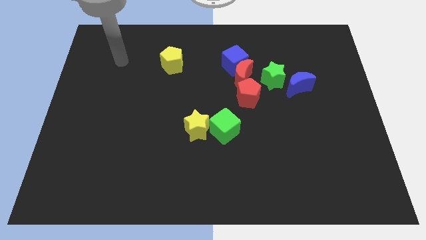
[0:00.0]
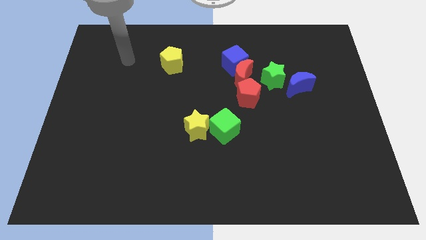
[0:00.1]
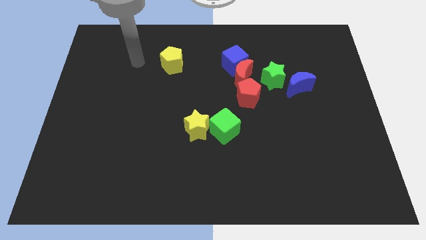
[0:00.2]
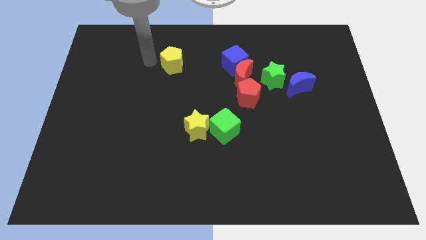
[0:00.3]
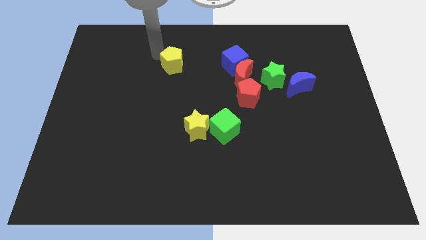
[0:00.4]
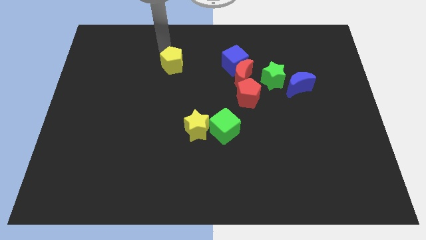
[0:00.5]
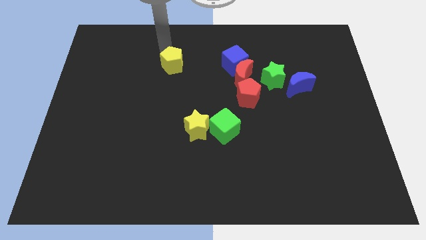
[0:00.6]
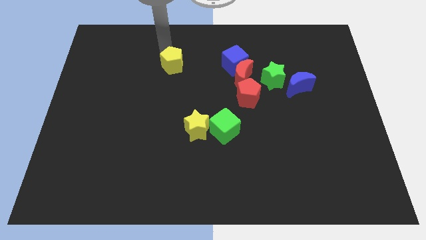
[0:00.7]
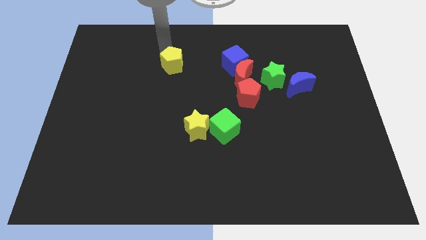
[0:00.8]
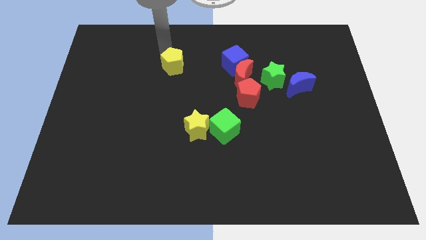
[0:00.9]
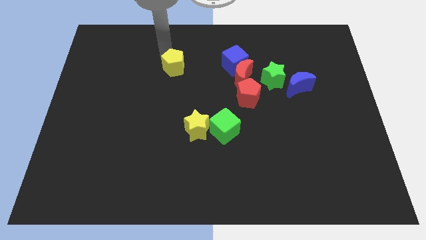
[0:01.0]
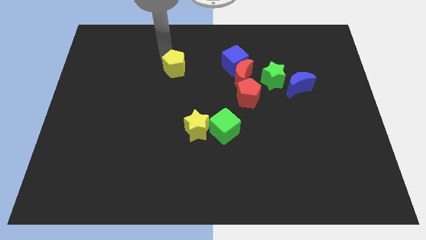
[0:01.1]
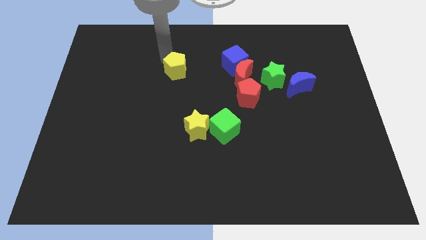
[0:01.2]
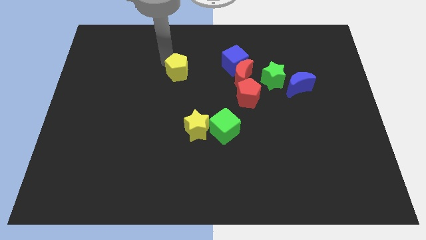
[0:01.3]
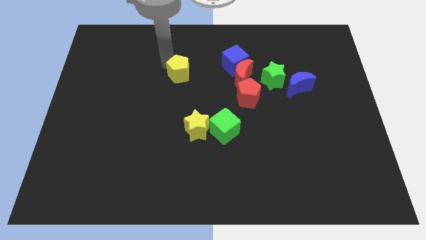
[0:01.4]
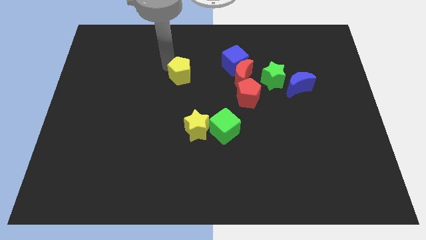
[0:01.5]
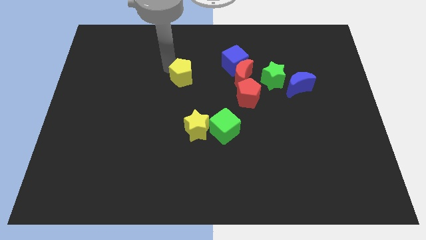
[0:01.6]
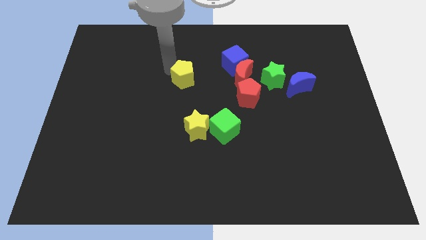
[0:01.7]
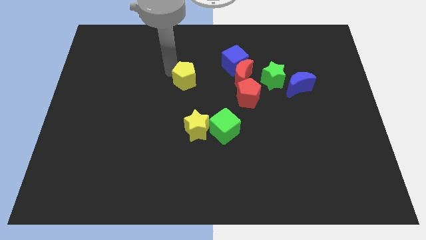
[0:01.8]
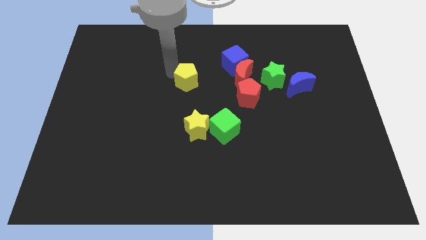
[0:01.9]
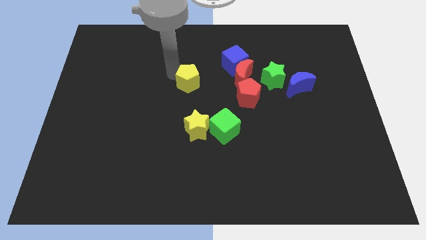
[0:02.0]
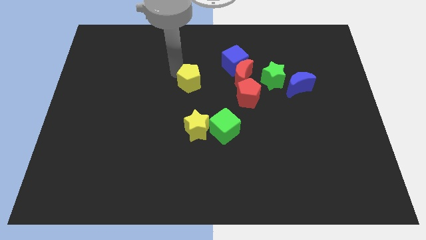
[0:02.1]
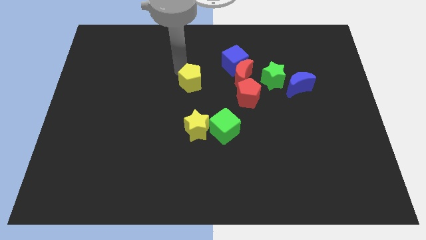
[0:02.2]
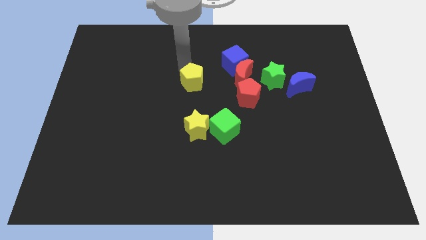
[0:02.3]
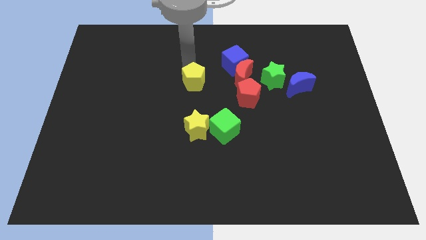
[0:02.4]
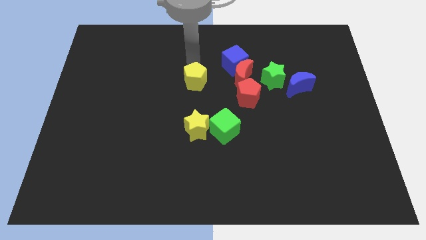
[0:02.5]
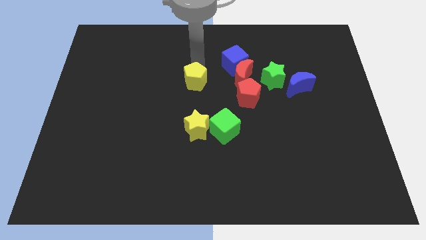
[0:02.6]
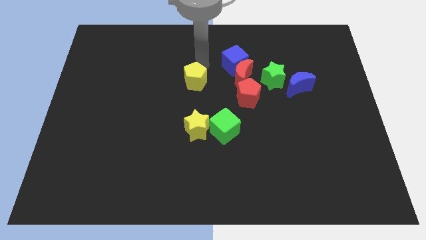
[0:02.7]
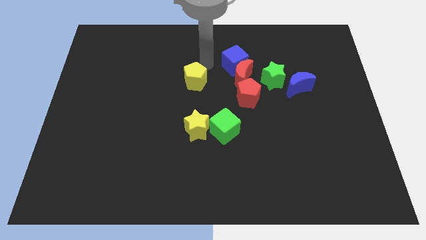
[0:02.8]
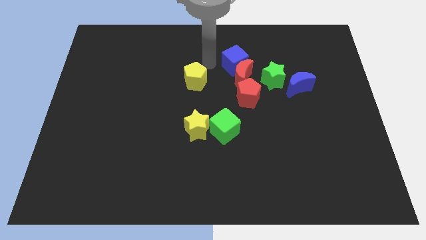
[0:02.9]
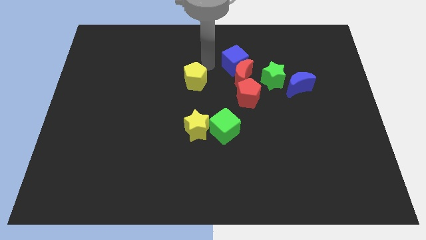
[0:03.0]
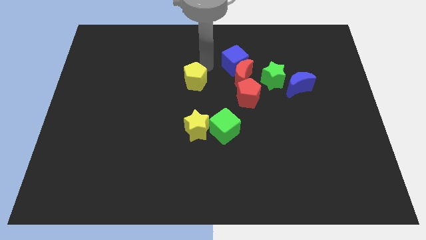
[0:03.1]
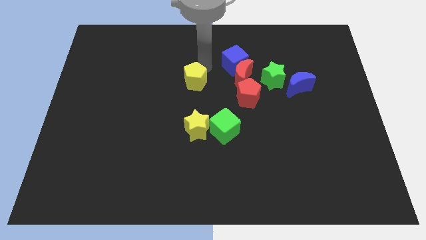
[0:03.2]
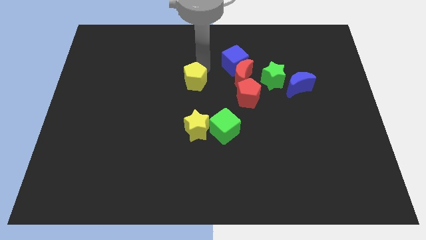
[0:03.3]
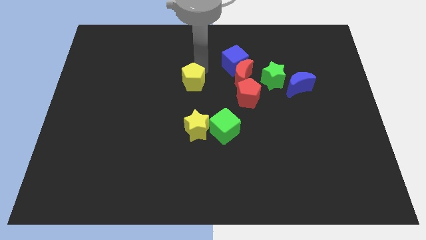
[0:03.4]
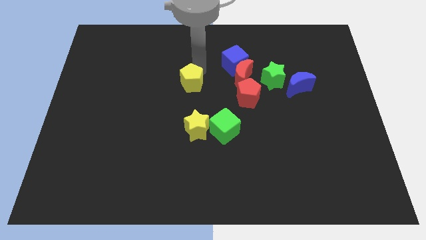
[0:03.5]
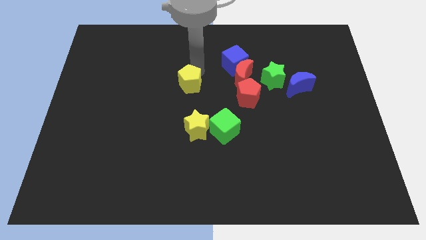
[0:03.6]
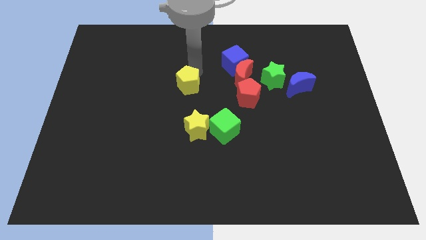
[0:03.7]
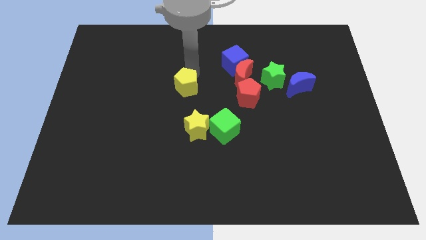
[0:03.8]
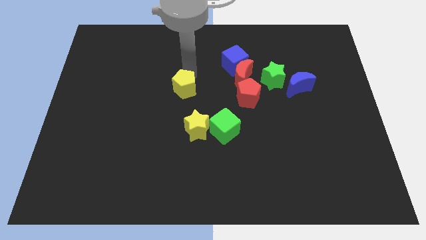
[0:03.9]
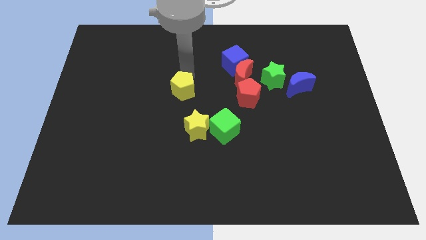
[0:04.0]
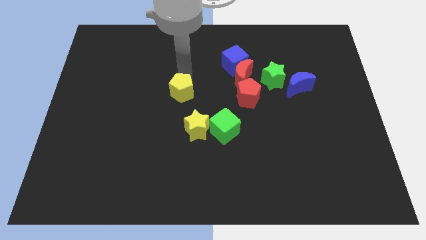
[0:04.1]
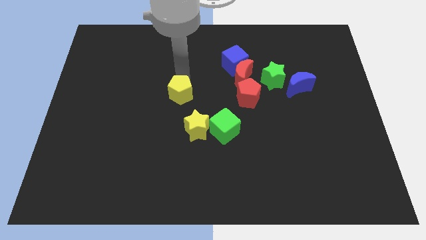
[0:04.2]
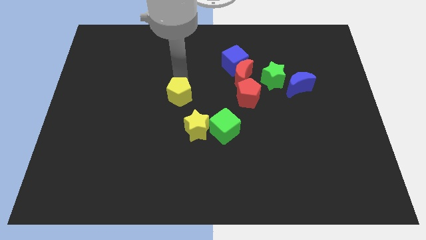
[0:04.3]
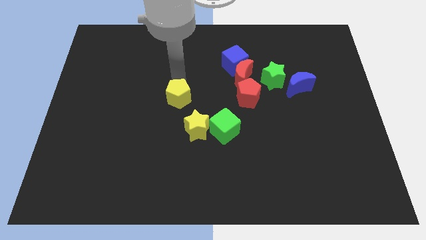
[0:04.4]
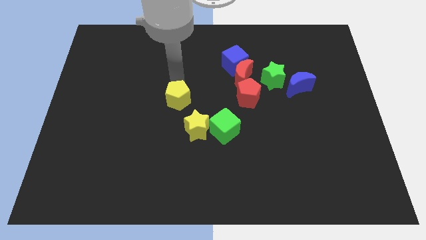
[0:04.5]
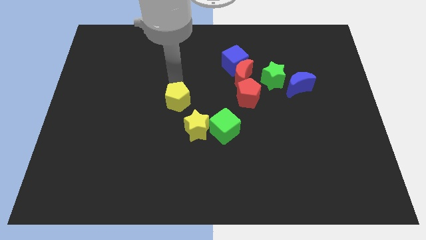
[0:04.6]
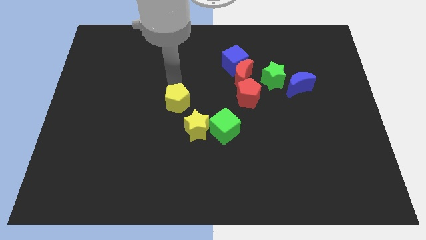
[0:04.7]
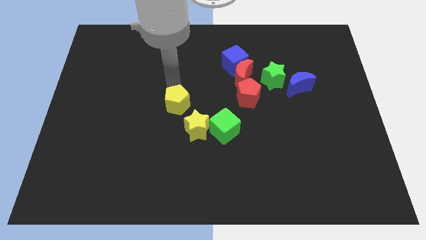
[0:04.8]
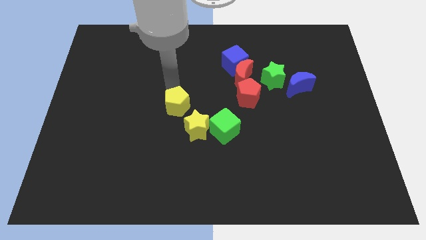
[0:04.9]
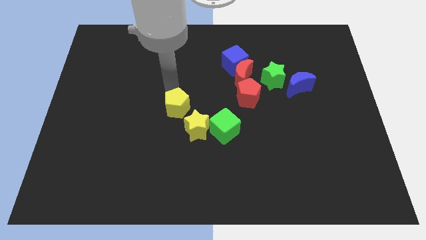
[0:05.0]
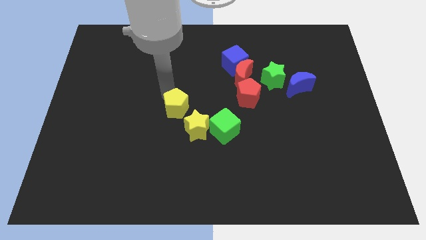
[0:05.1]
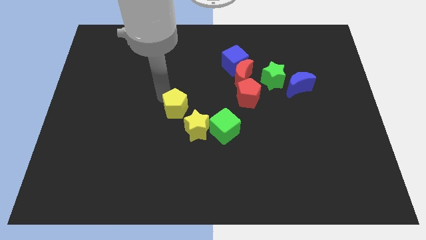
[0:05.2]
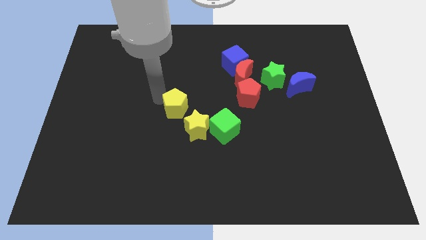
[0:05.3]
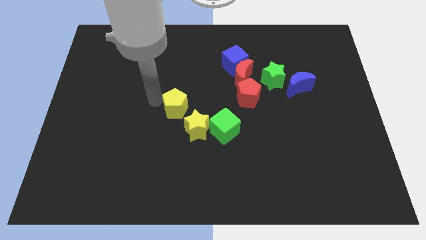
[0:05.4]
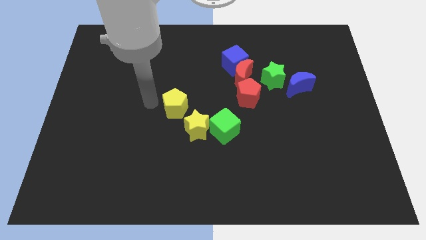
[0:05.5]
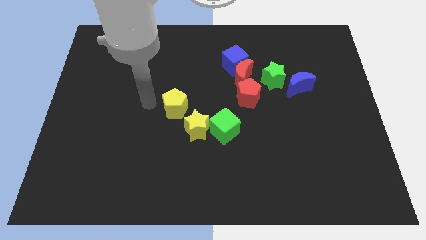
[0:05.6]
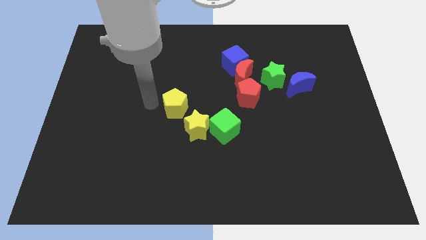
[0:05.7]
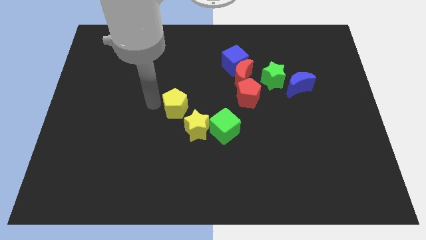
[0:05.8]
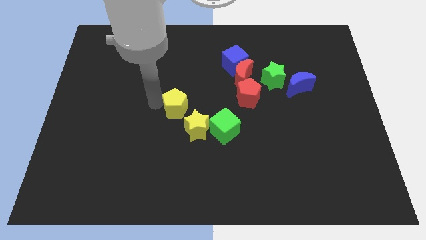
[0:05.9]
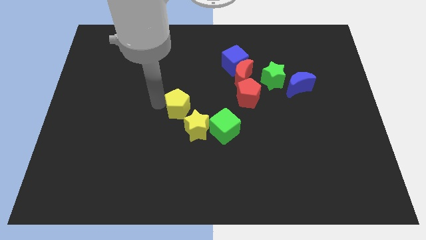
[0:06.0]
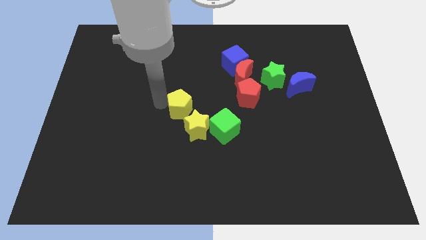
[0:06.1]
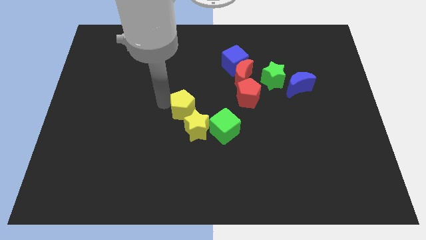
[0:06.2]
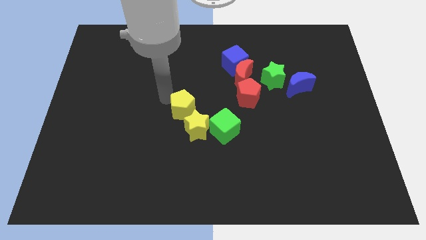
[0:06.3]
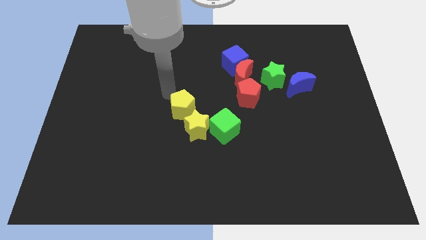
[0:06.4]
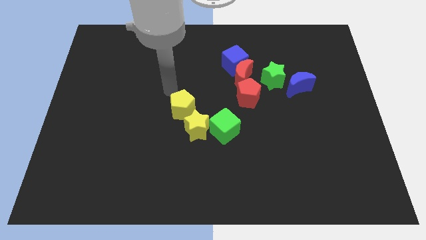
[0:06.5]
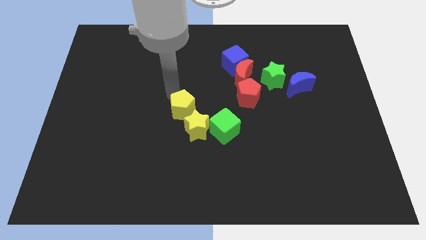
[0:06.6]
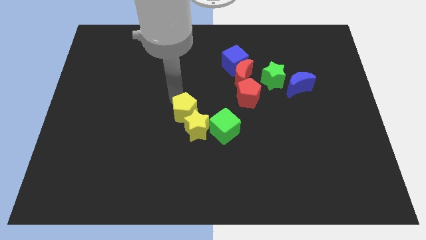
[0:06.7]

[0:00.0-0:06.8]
move the yellow pentagon to the yellow star

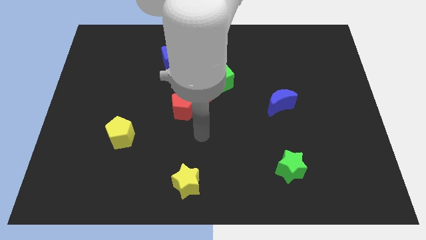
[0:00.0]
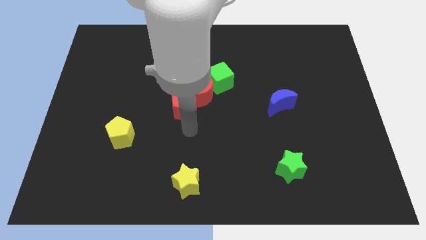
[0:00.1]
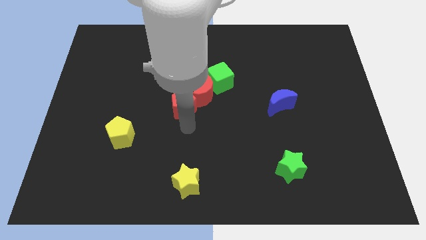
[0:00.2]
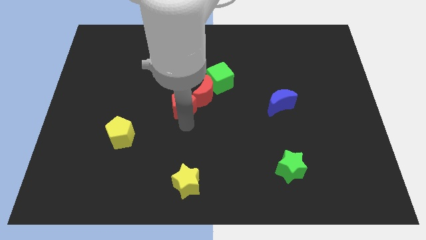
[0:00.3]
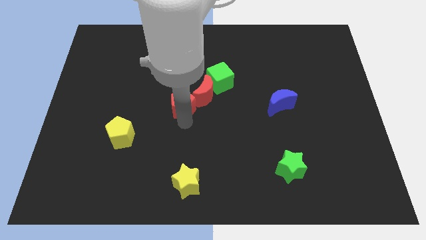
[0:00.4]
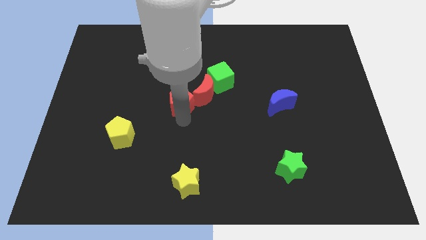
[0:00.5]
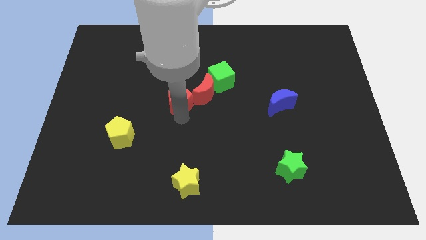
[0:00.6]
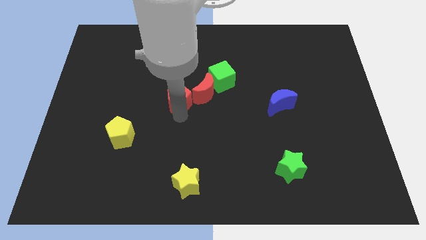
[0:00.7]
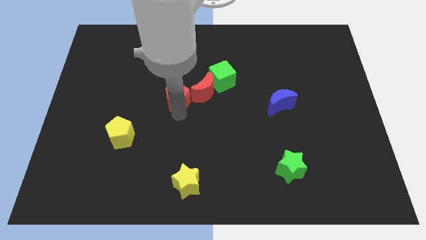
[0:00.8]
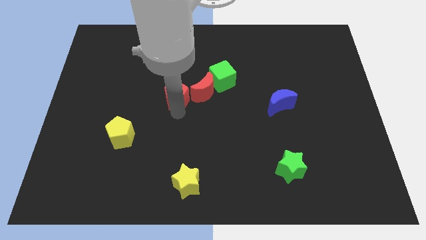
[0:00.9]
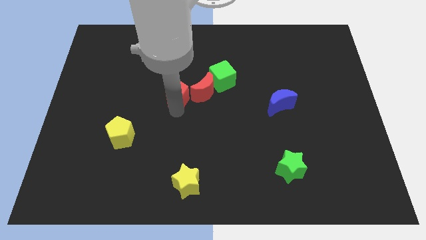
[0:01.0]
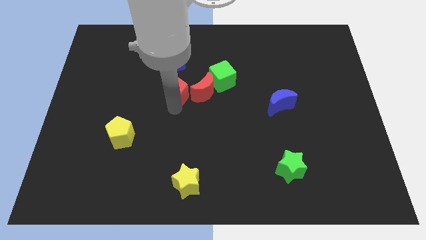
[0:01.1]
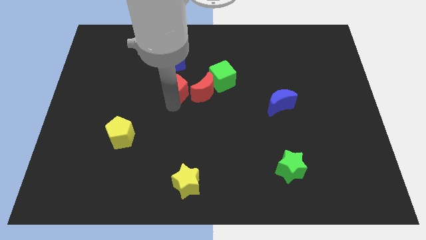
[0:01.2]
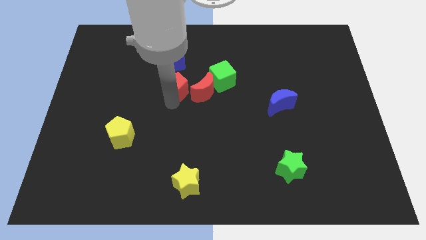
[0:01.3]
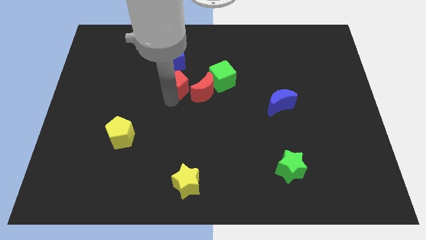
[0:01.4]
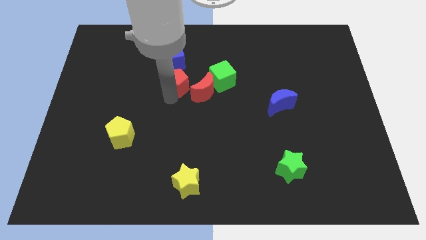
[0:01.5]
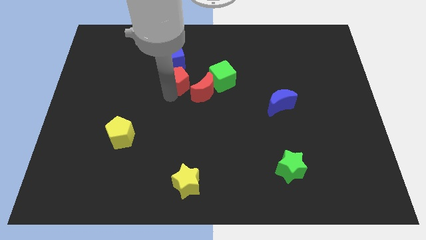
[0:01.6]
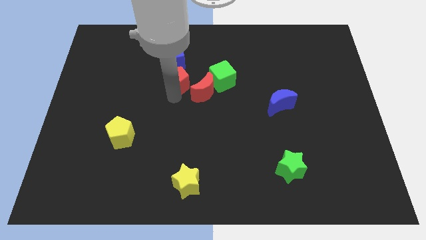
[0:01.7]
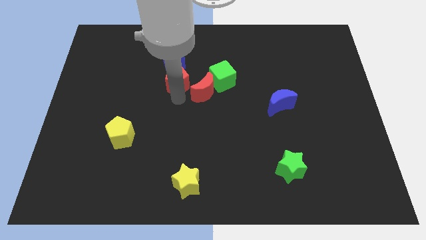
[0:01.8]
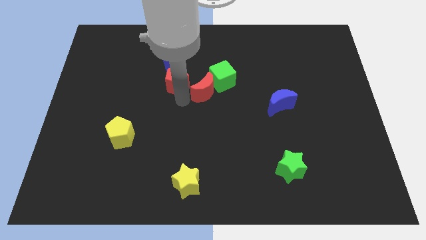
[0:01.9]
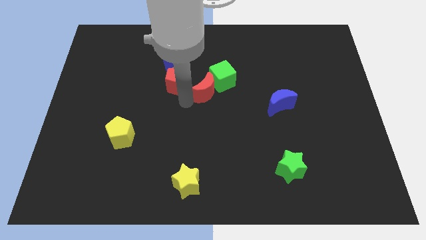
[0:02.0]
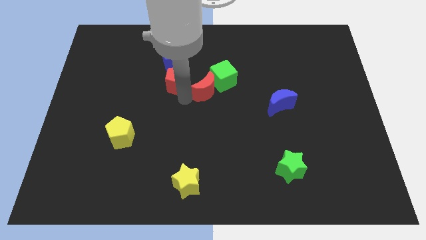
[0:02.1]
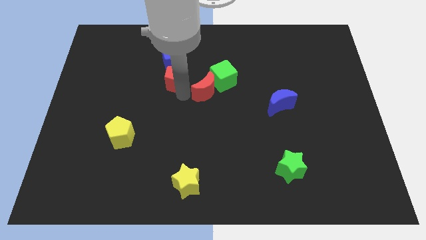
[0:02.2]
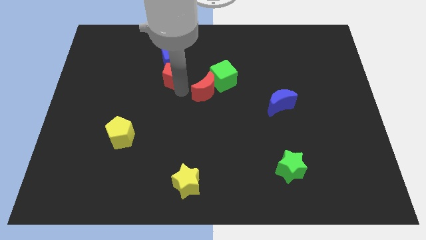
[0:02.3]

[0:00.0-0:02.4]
put the red pentagon towards the blue cube
